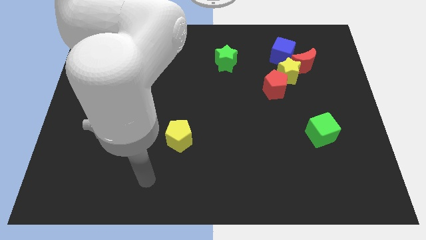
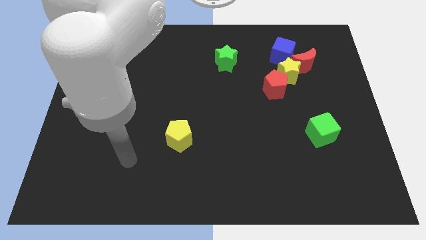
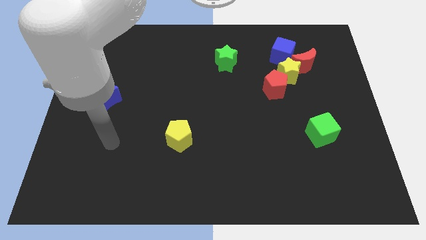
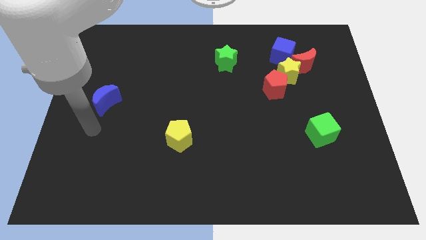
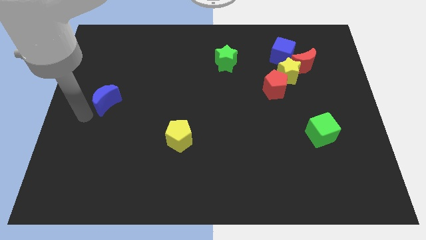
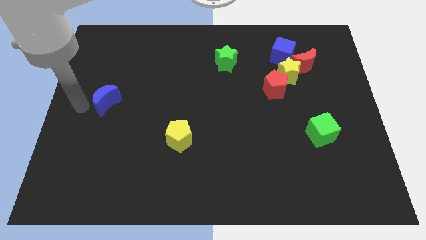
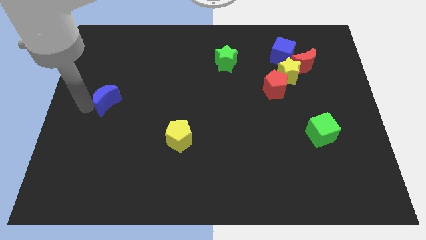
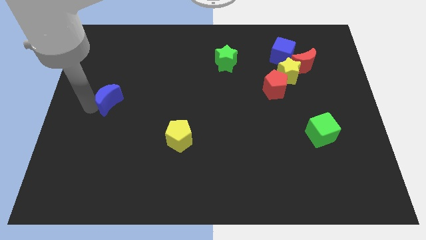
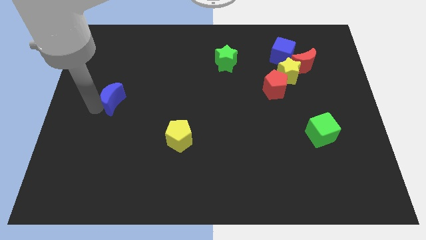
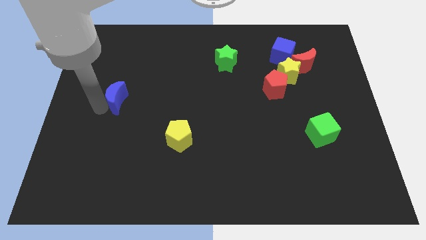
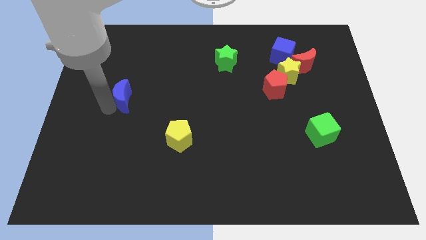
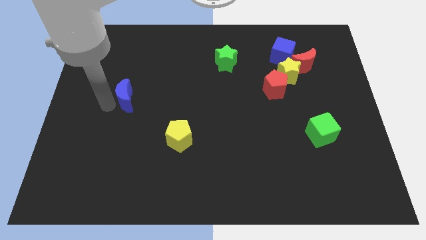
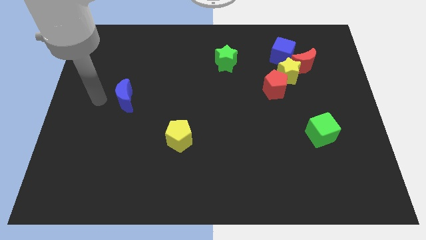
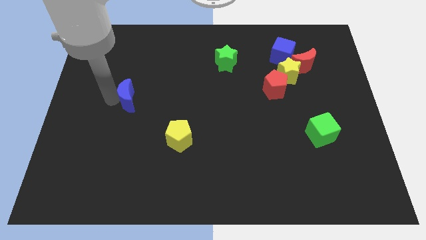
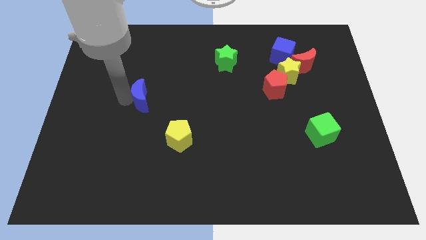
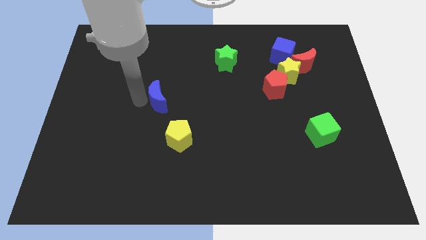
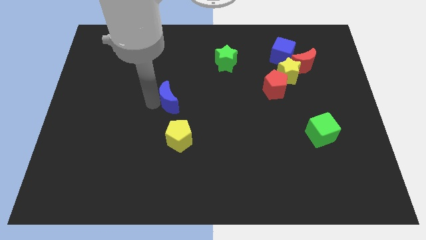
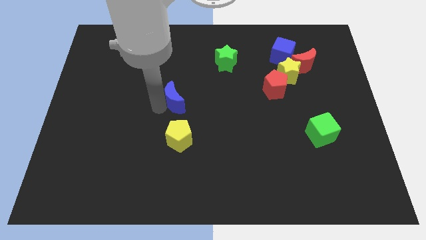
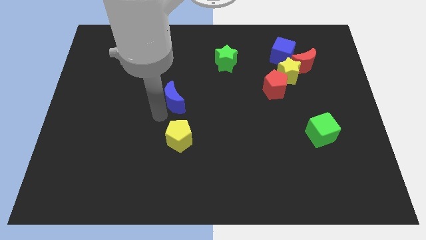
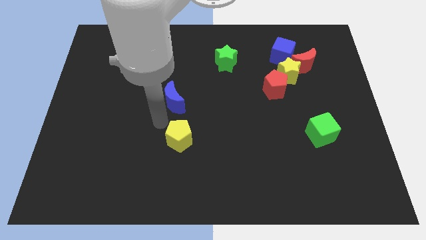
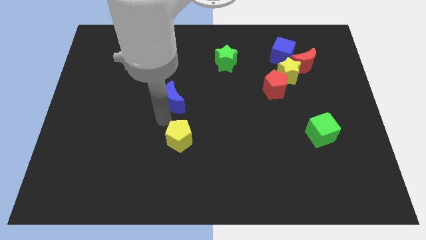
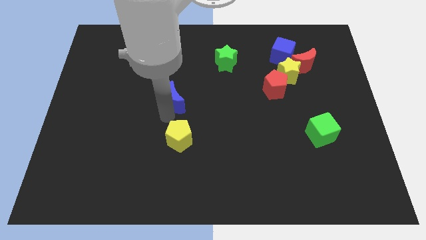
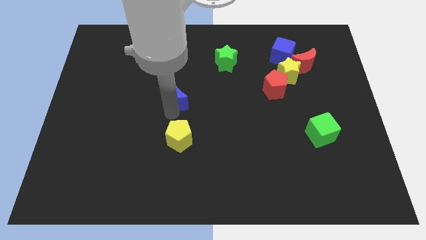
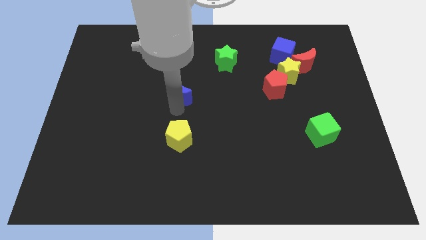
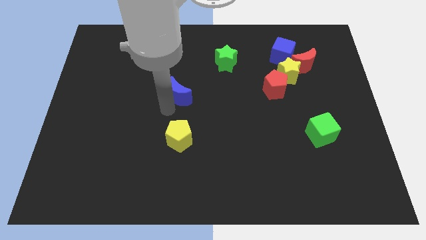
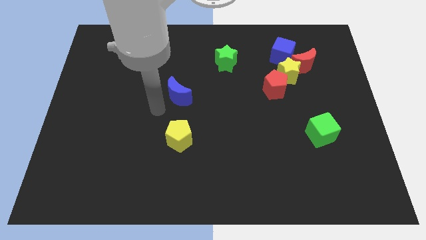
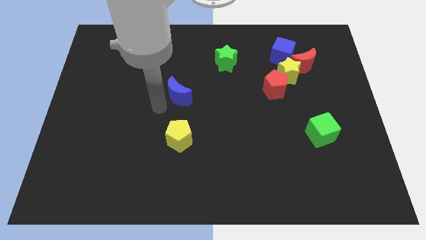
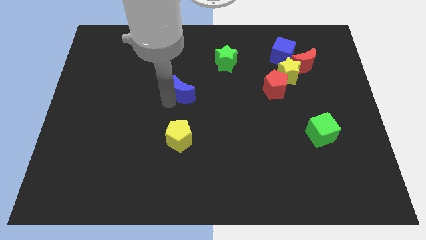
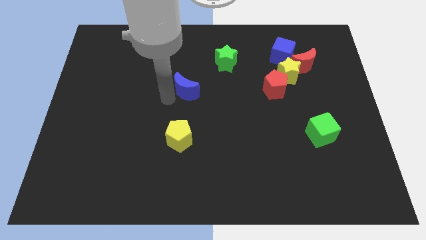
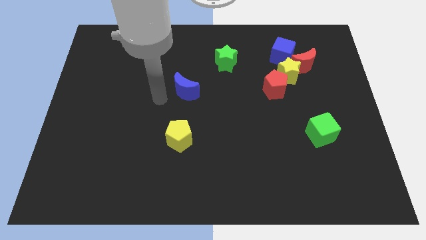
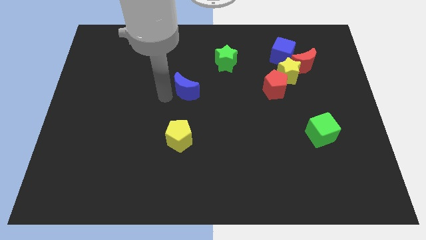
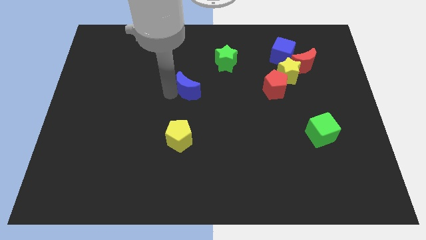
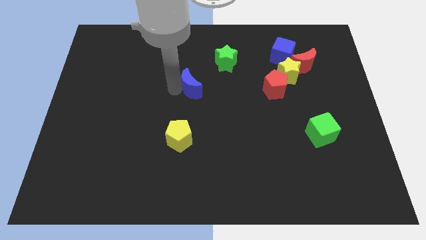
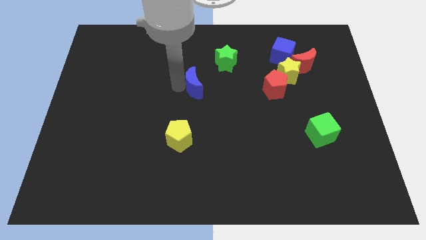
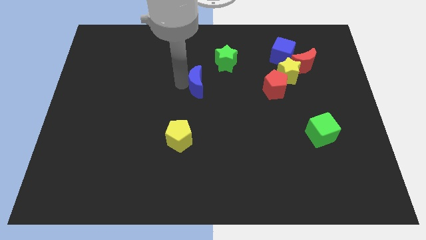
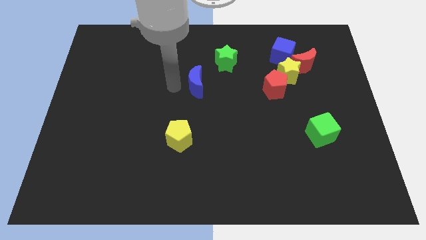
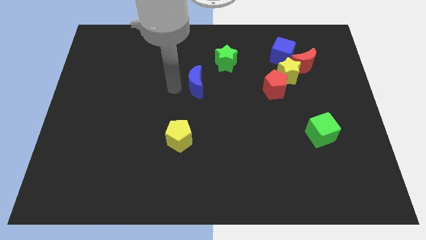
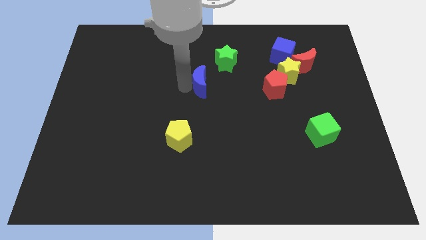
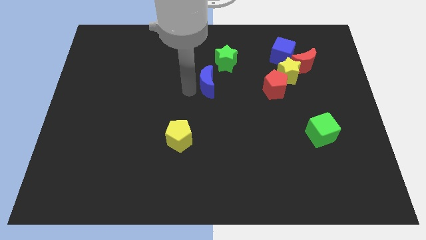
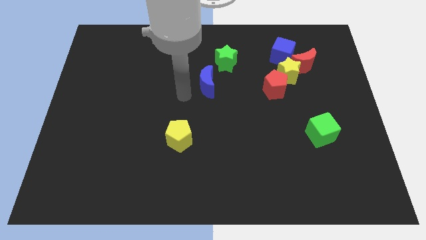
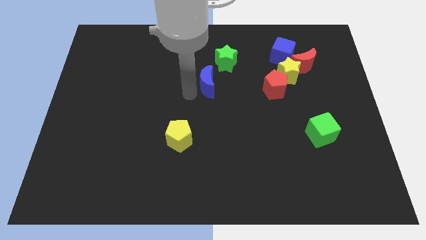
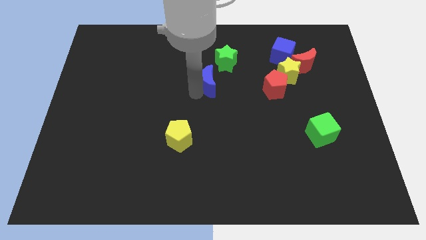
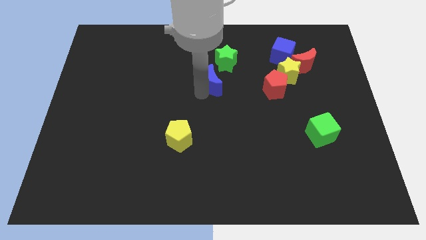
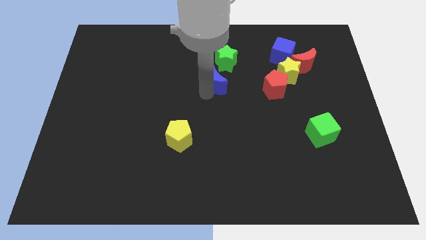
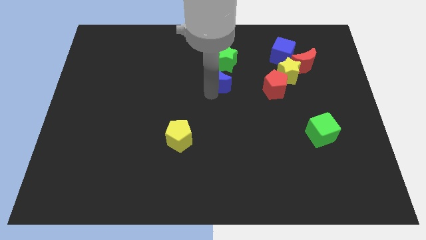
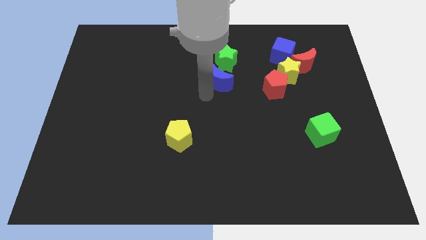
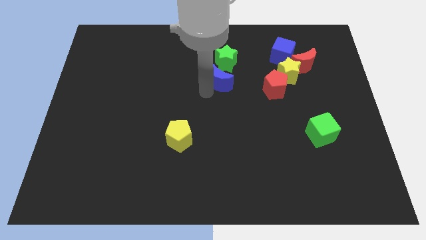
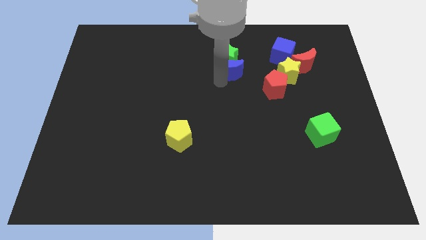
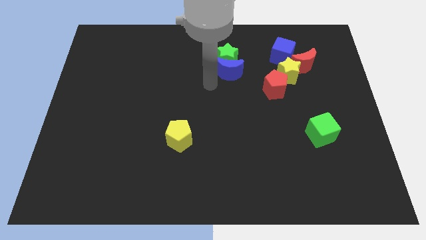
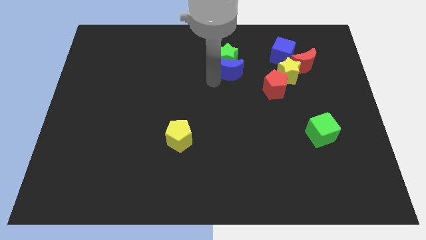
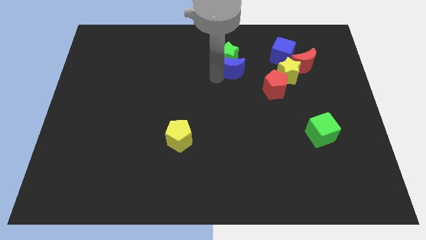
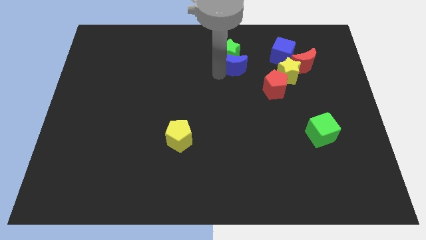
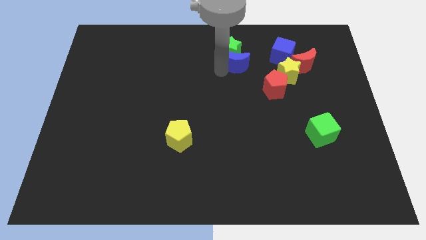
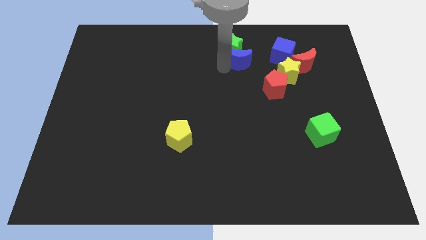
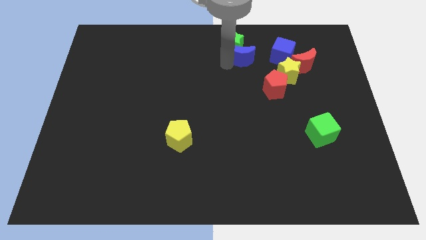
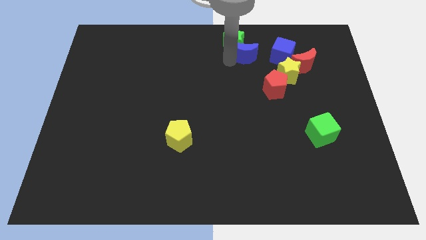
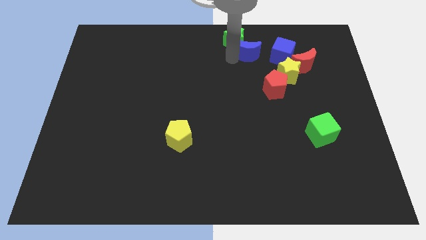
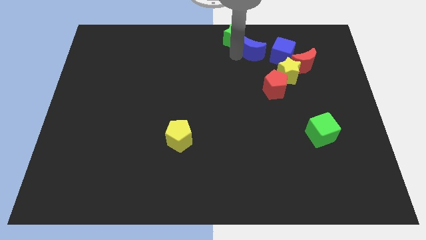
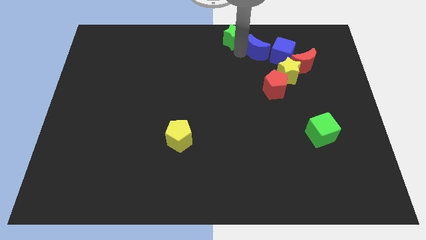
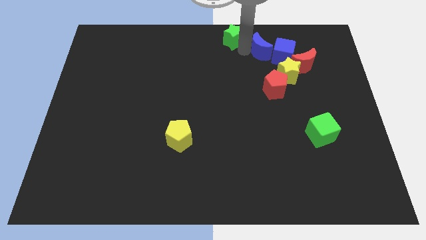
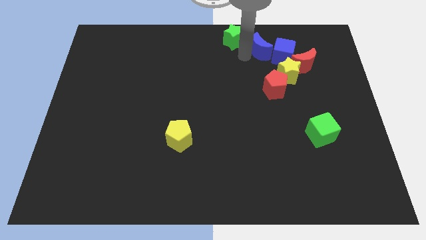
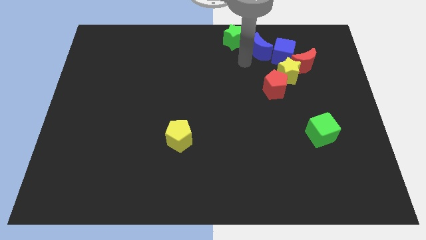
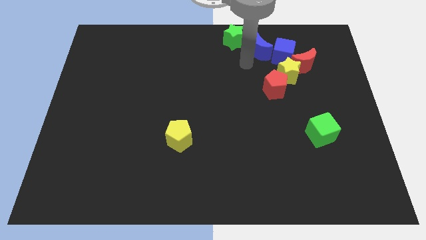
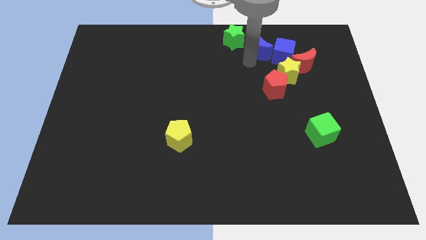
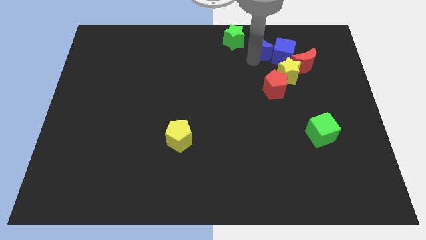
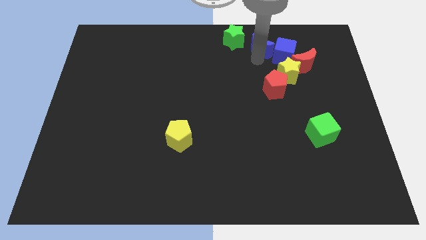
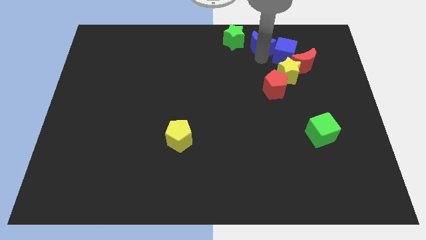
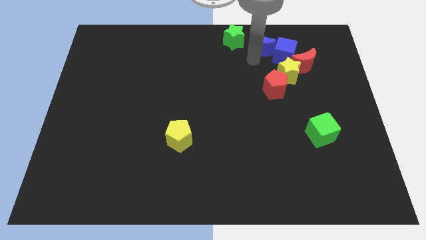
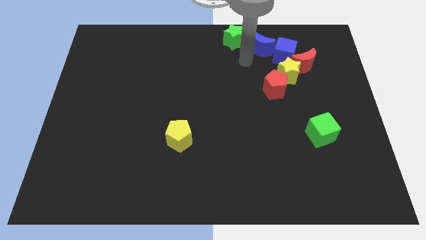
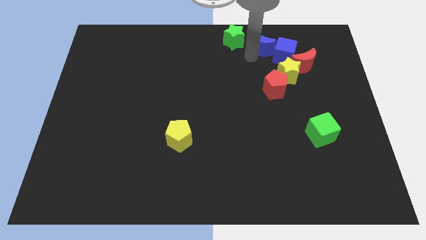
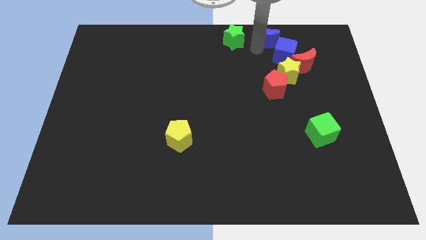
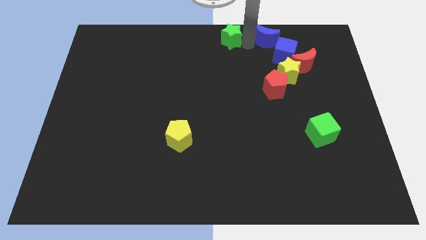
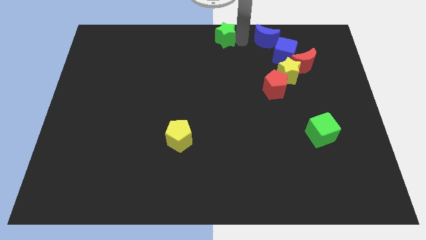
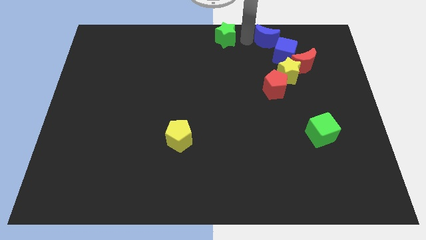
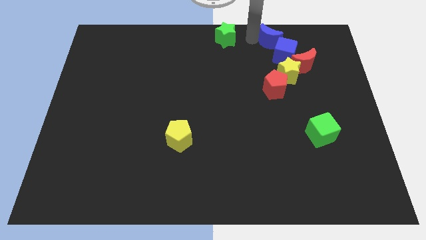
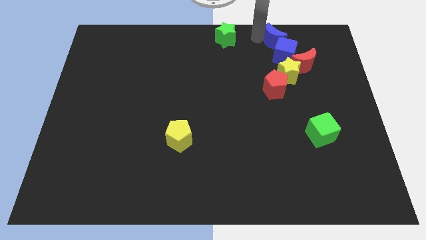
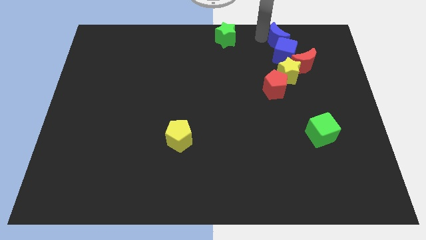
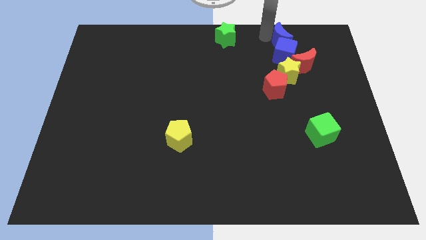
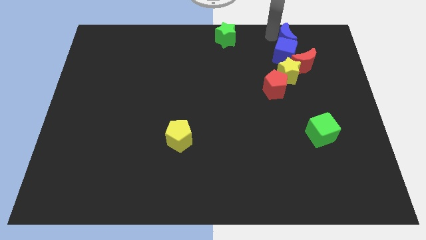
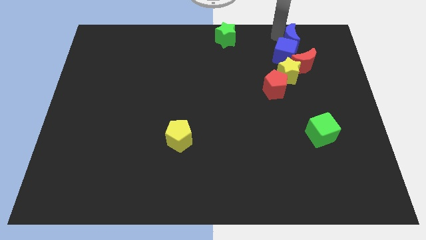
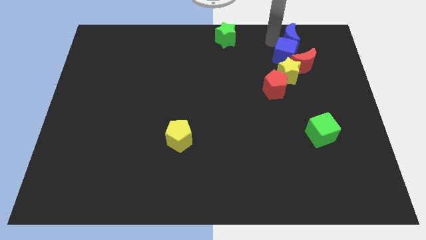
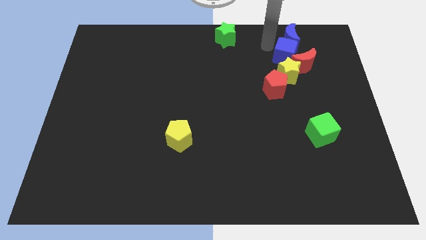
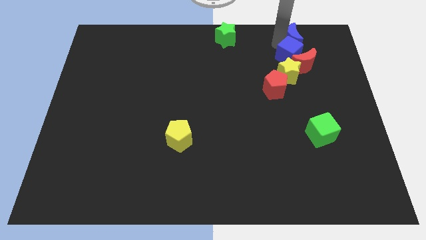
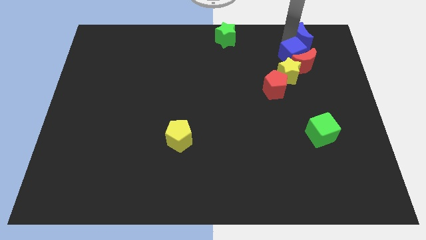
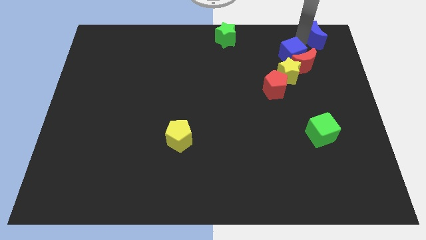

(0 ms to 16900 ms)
move the blue moon to the top right
